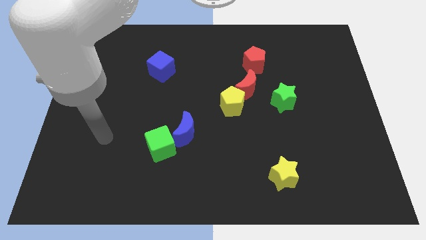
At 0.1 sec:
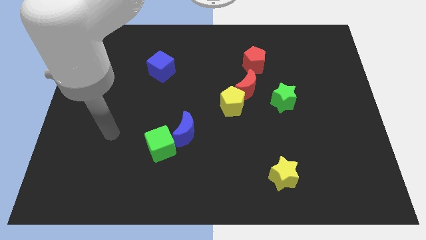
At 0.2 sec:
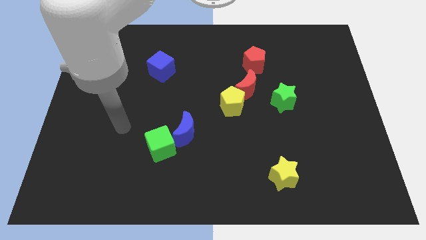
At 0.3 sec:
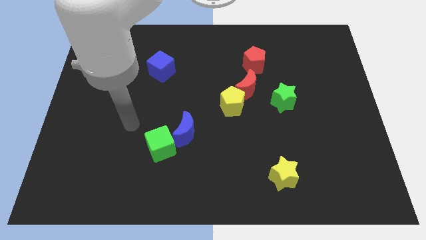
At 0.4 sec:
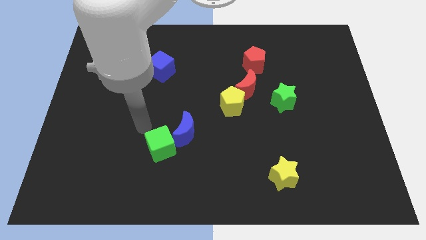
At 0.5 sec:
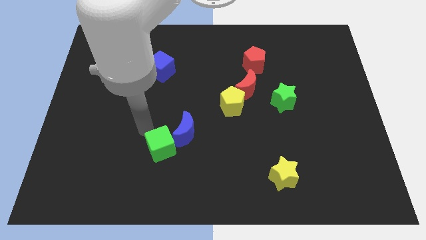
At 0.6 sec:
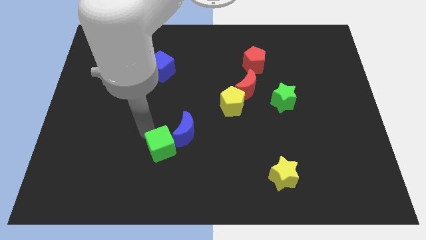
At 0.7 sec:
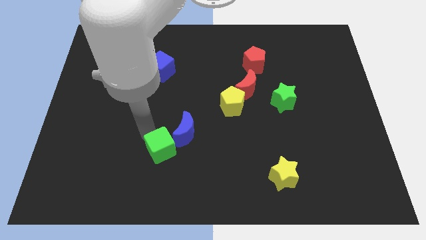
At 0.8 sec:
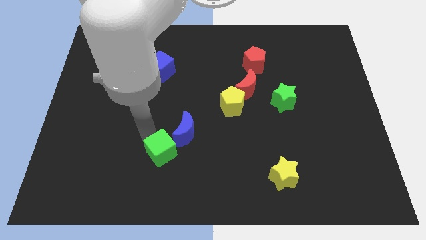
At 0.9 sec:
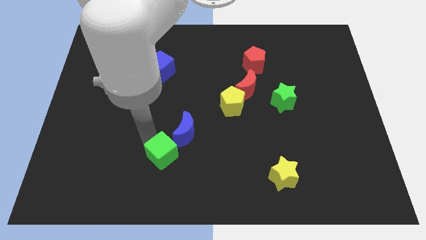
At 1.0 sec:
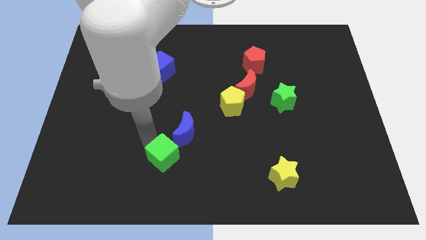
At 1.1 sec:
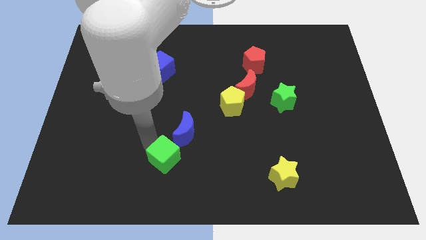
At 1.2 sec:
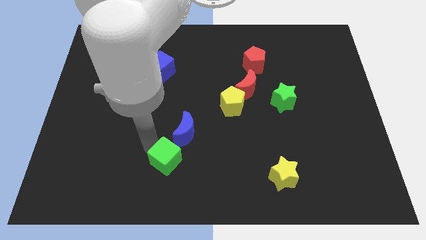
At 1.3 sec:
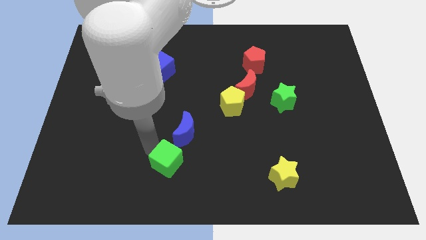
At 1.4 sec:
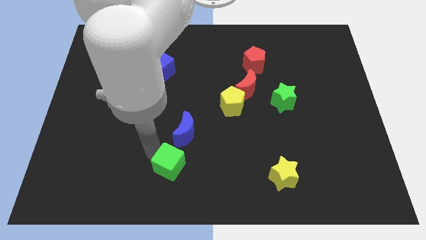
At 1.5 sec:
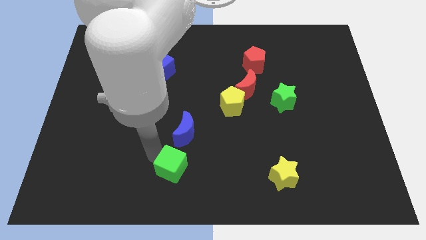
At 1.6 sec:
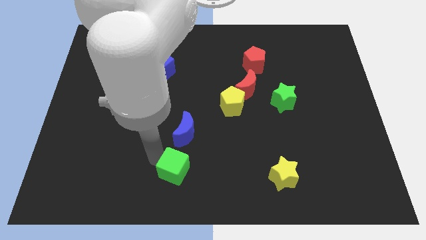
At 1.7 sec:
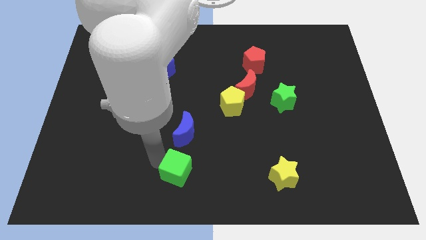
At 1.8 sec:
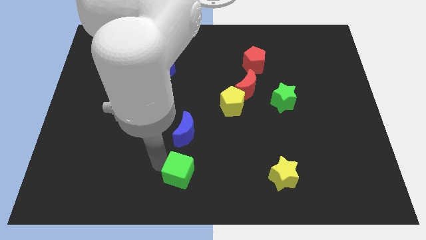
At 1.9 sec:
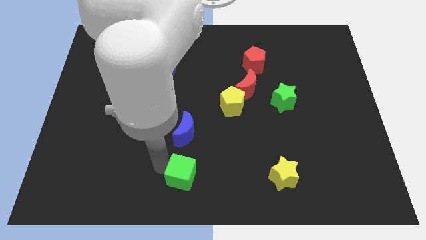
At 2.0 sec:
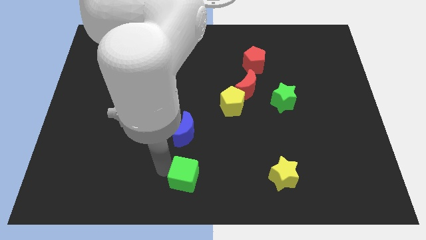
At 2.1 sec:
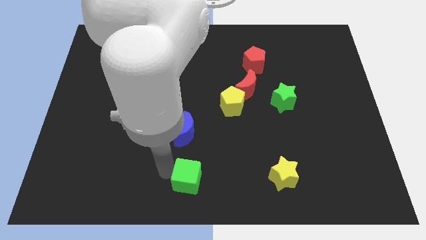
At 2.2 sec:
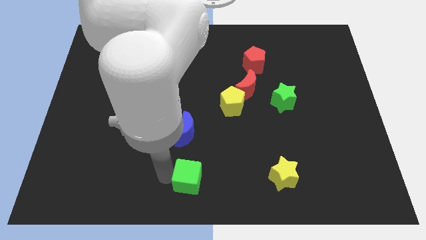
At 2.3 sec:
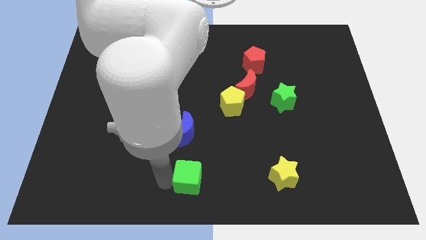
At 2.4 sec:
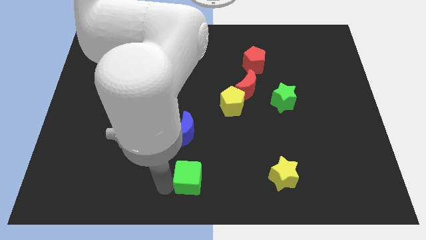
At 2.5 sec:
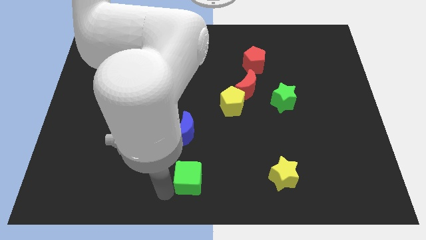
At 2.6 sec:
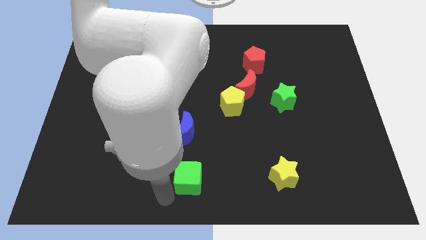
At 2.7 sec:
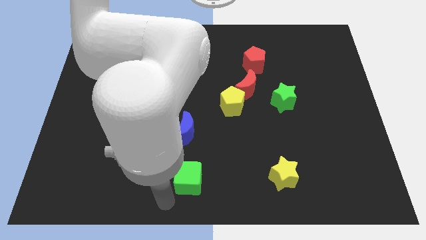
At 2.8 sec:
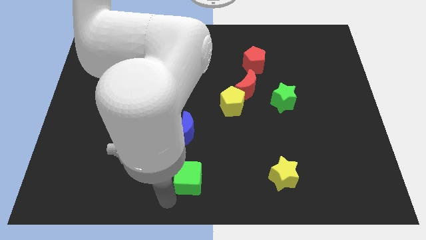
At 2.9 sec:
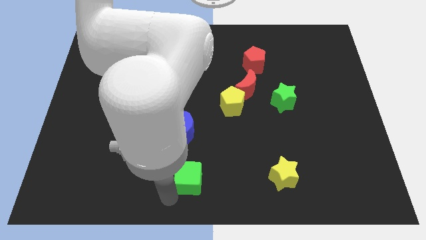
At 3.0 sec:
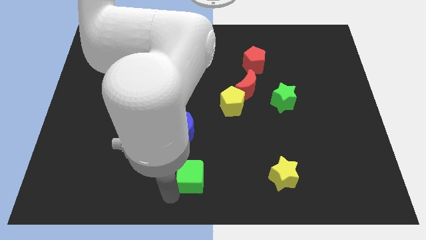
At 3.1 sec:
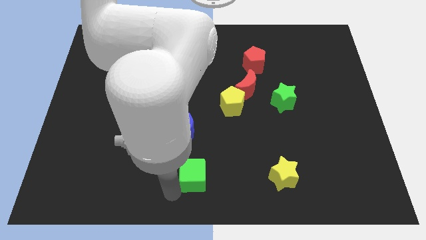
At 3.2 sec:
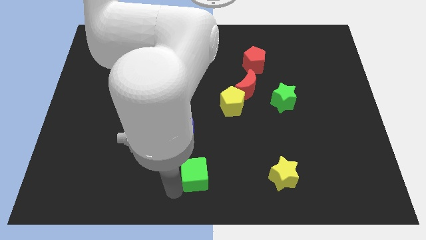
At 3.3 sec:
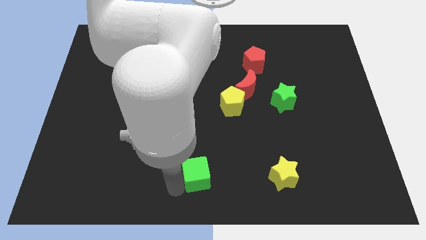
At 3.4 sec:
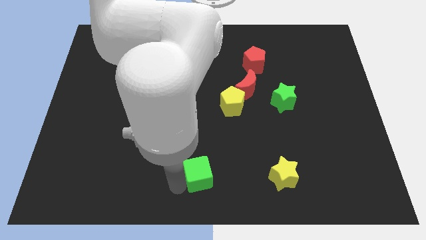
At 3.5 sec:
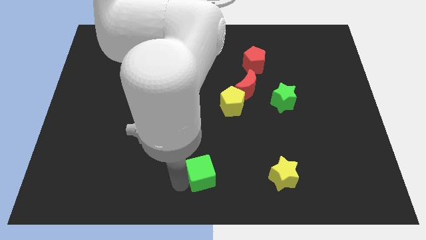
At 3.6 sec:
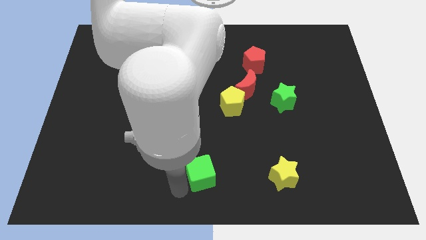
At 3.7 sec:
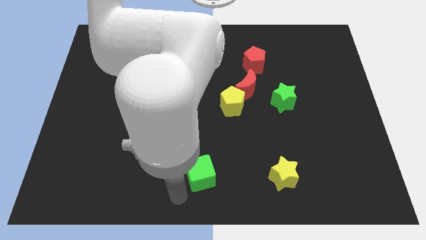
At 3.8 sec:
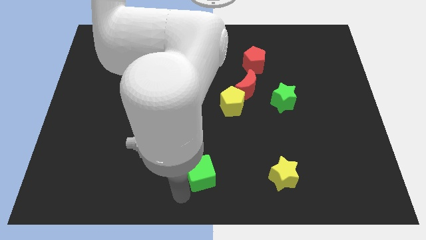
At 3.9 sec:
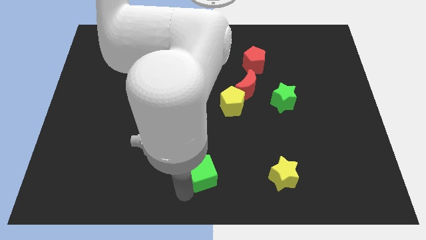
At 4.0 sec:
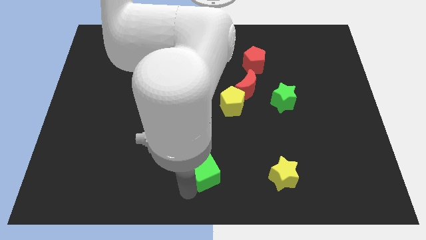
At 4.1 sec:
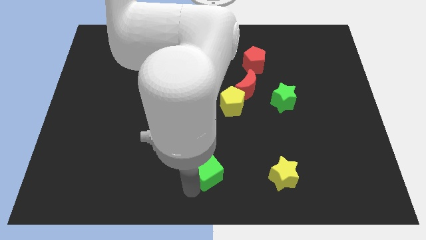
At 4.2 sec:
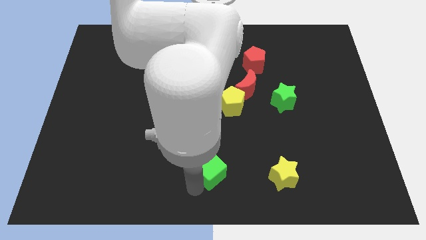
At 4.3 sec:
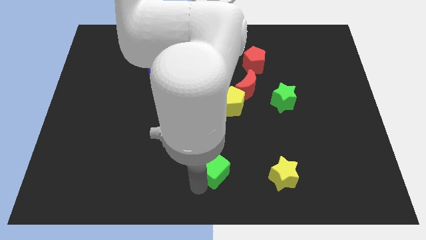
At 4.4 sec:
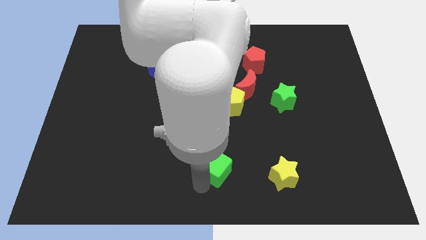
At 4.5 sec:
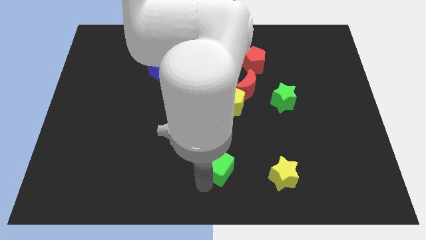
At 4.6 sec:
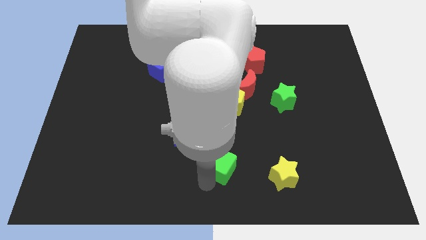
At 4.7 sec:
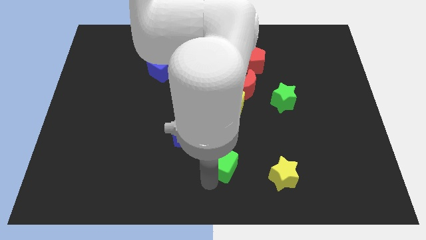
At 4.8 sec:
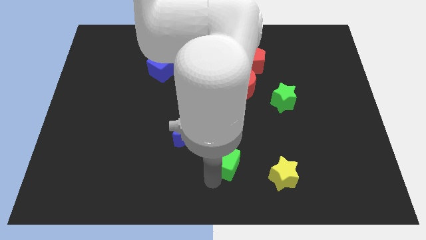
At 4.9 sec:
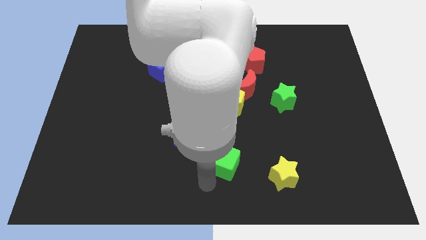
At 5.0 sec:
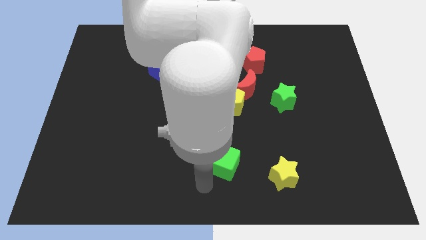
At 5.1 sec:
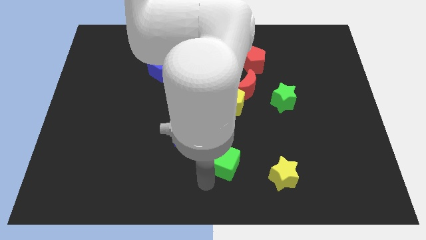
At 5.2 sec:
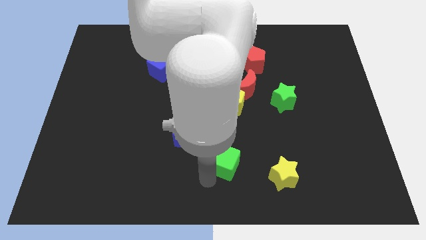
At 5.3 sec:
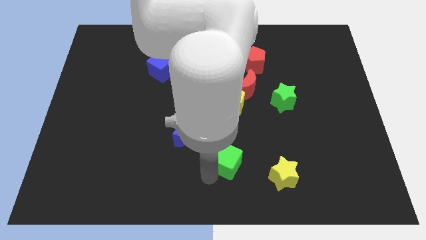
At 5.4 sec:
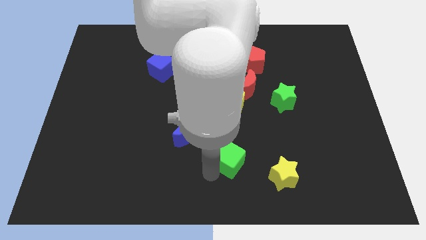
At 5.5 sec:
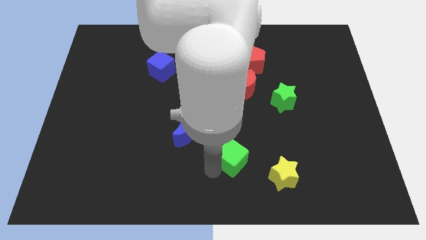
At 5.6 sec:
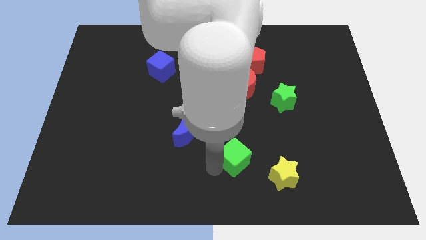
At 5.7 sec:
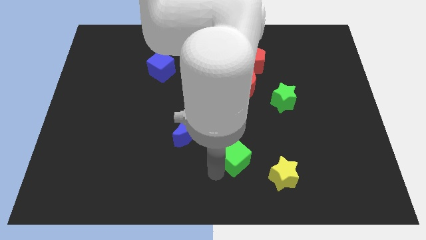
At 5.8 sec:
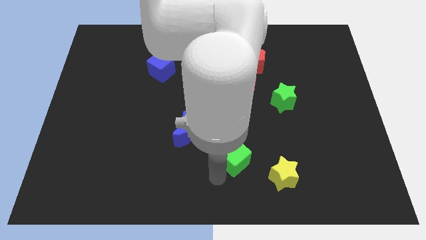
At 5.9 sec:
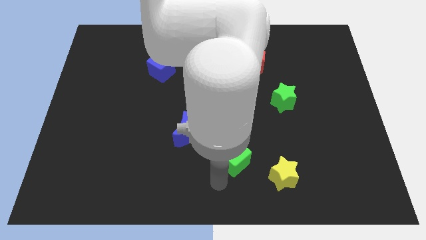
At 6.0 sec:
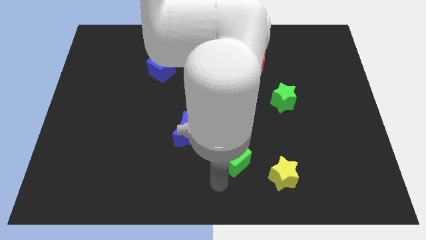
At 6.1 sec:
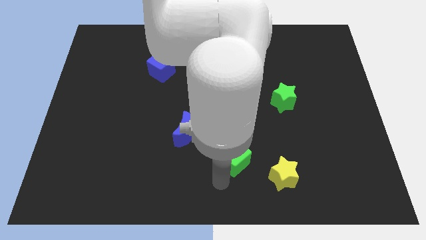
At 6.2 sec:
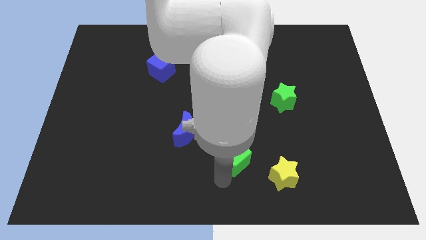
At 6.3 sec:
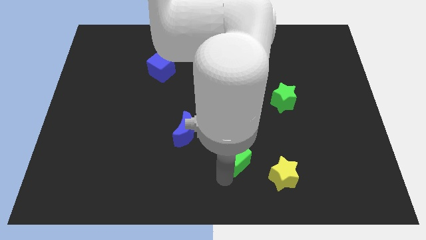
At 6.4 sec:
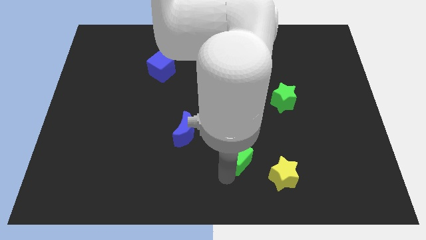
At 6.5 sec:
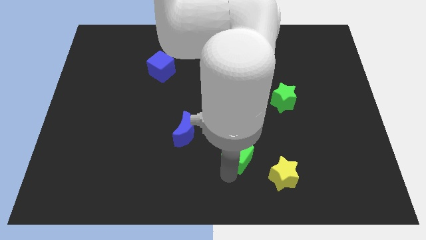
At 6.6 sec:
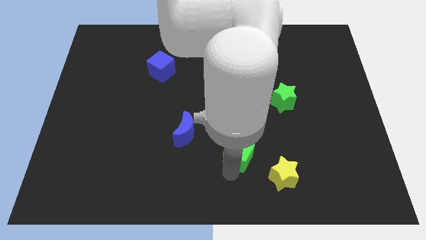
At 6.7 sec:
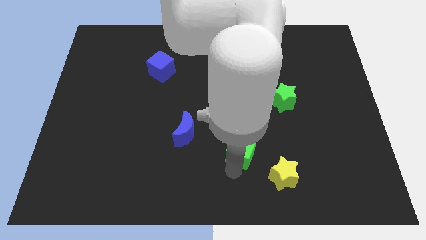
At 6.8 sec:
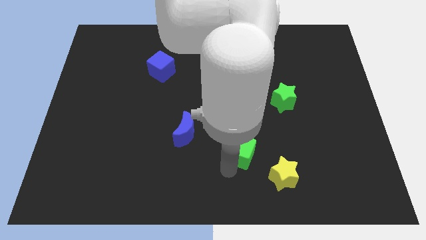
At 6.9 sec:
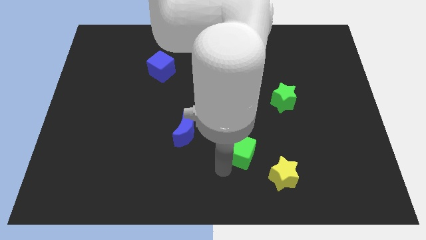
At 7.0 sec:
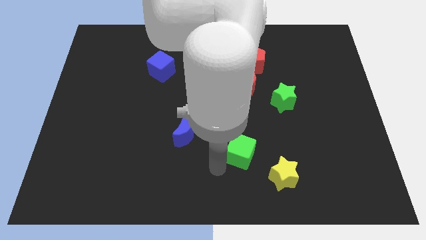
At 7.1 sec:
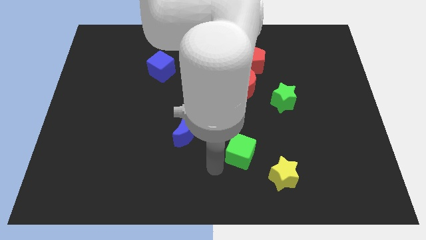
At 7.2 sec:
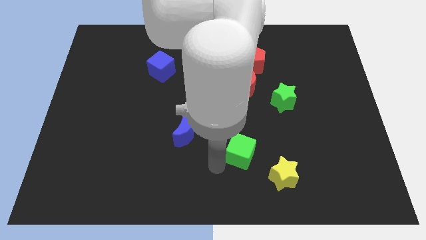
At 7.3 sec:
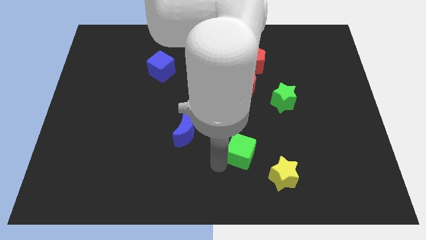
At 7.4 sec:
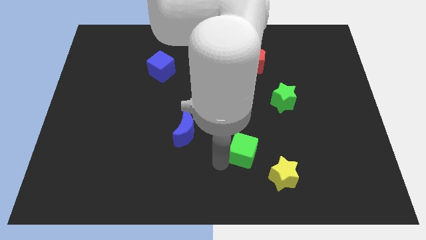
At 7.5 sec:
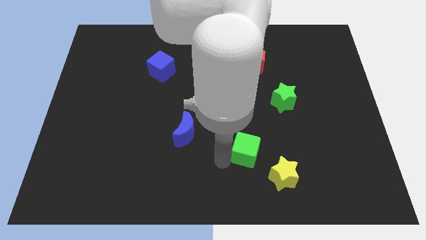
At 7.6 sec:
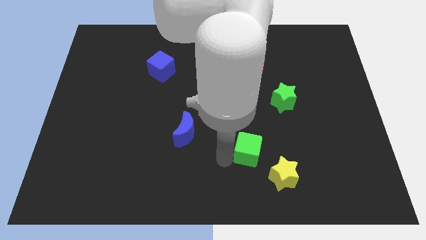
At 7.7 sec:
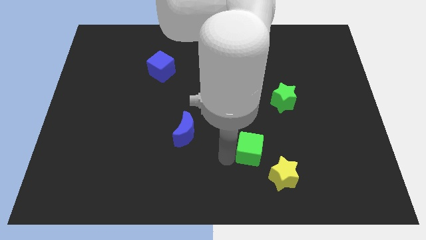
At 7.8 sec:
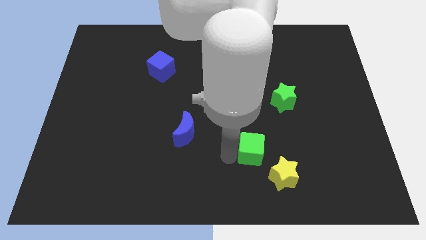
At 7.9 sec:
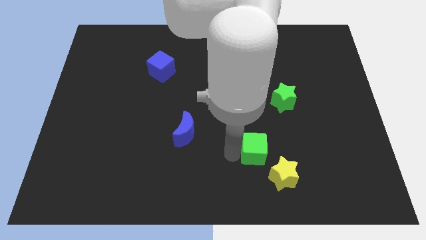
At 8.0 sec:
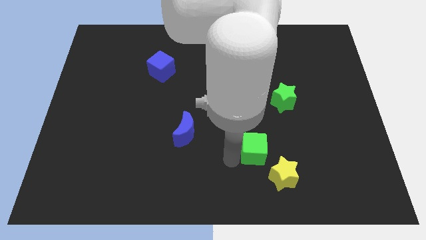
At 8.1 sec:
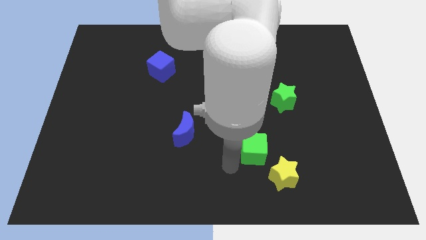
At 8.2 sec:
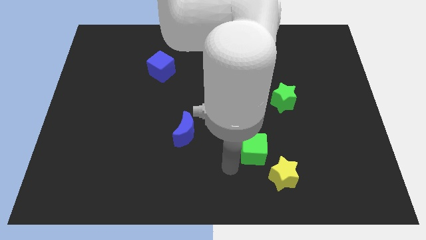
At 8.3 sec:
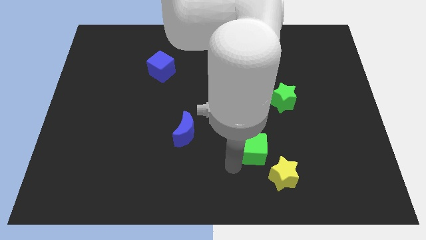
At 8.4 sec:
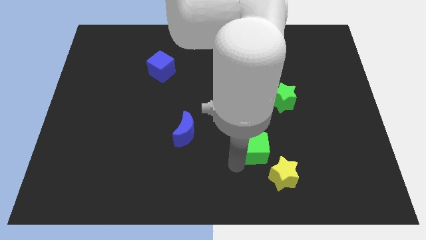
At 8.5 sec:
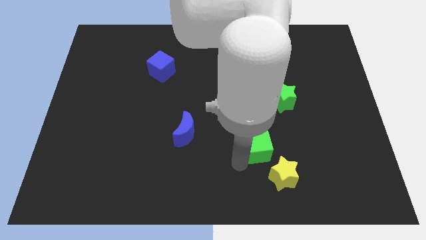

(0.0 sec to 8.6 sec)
slide the green cube to the top of the yellow star
